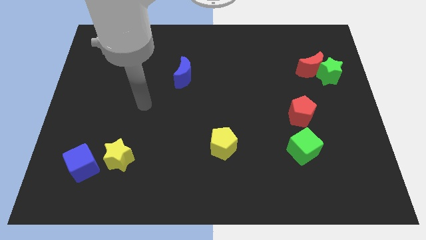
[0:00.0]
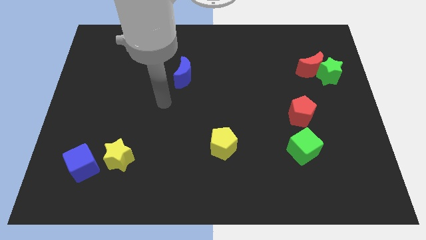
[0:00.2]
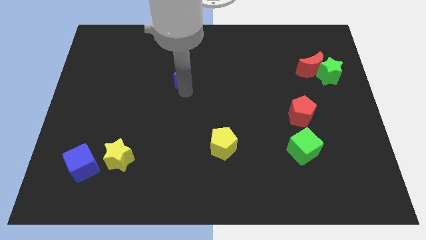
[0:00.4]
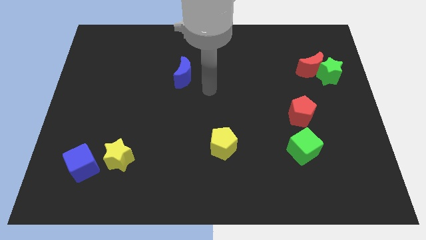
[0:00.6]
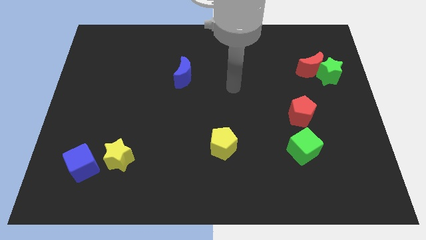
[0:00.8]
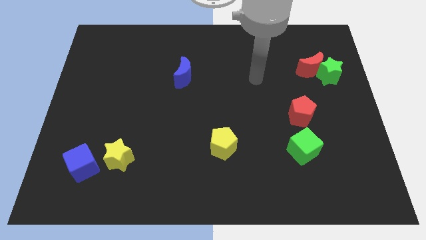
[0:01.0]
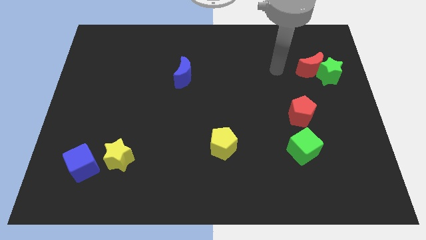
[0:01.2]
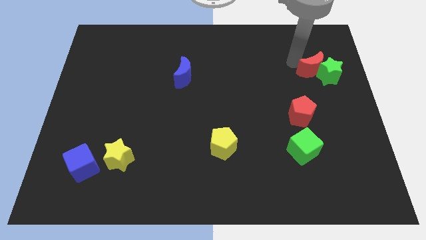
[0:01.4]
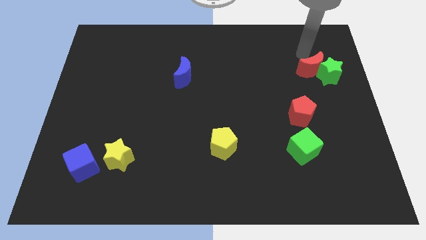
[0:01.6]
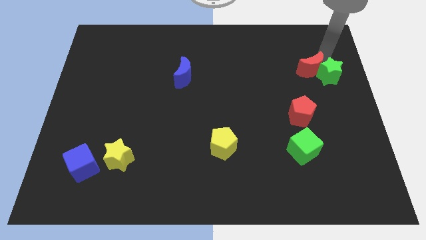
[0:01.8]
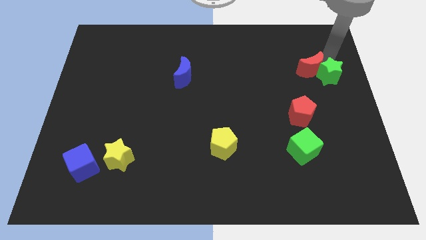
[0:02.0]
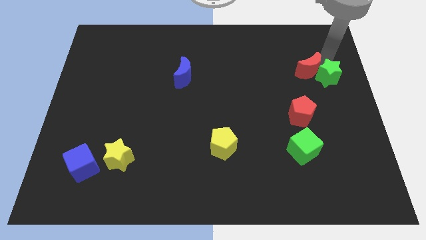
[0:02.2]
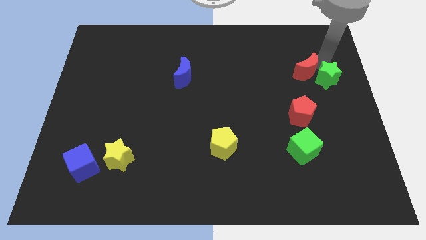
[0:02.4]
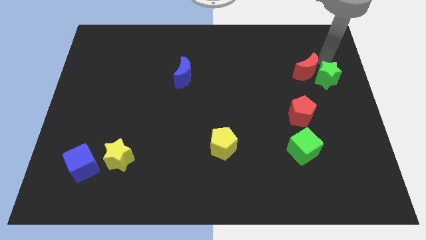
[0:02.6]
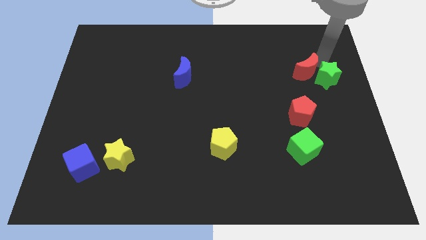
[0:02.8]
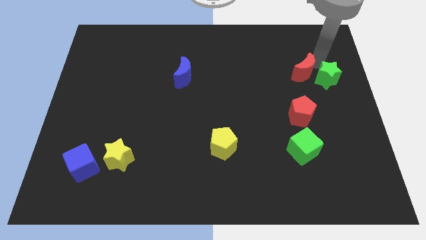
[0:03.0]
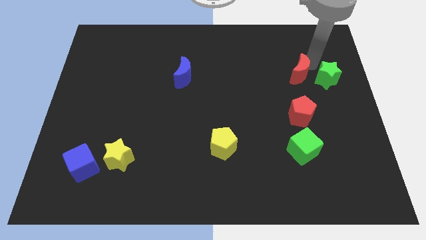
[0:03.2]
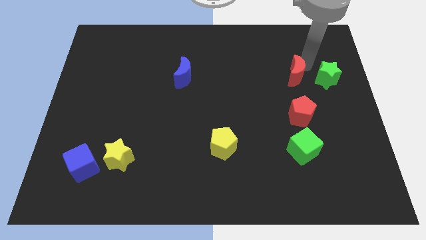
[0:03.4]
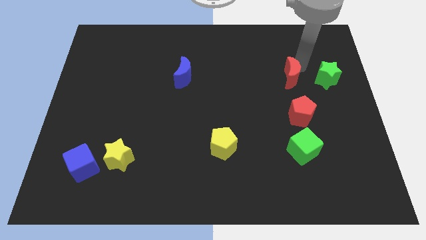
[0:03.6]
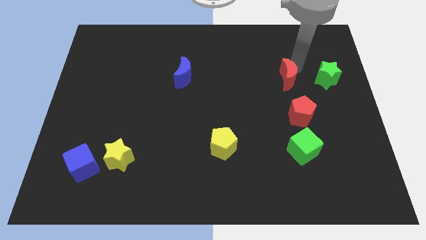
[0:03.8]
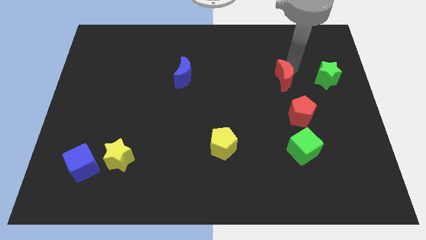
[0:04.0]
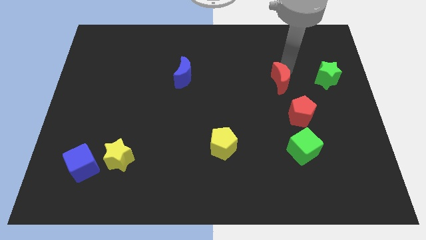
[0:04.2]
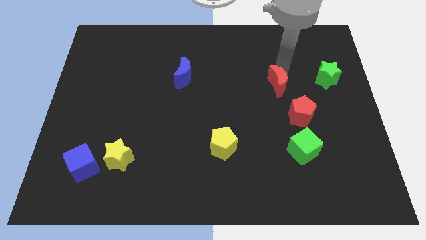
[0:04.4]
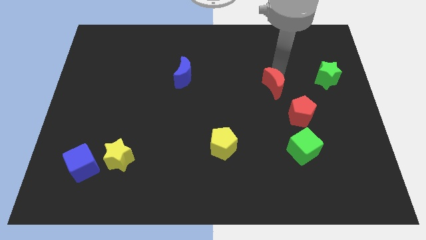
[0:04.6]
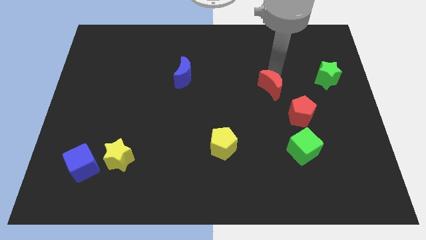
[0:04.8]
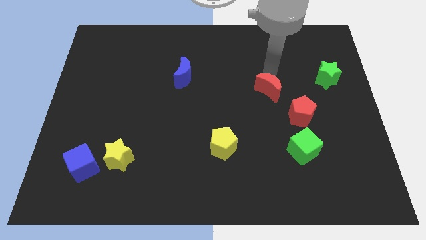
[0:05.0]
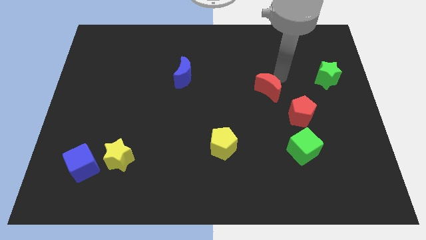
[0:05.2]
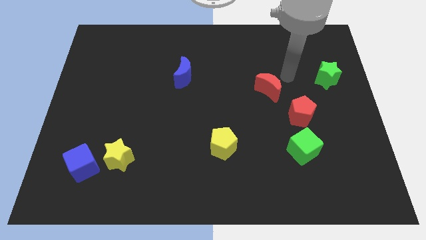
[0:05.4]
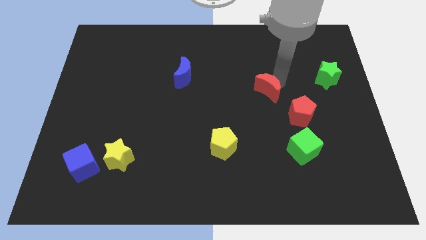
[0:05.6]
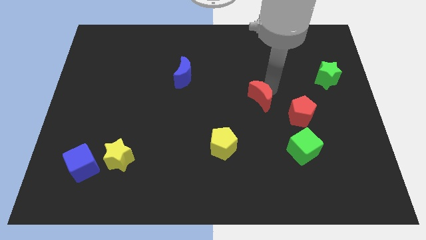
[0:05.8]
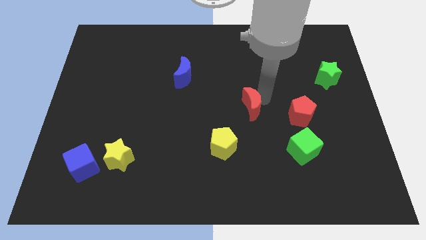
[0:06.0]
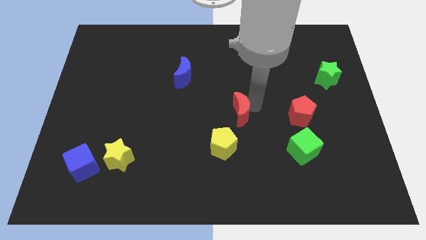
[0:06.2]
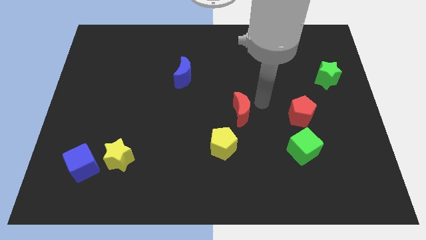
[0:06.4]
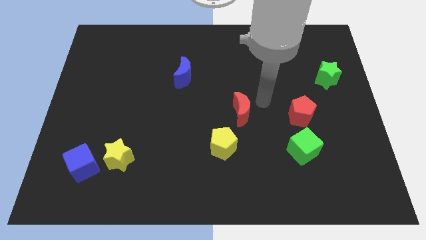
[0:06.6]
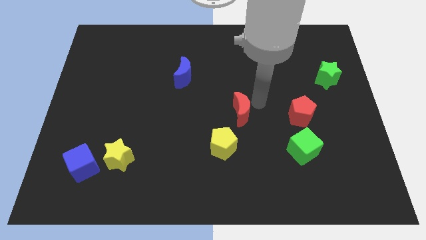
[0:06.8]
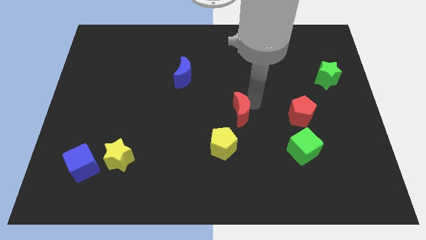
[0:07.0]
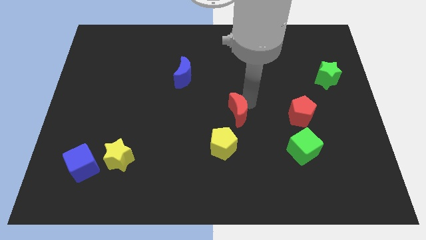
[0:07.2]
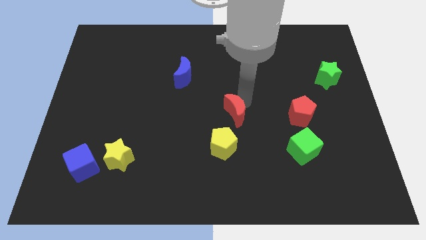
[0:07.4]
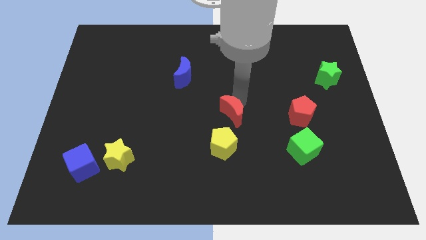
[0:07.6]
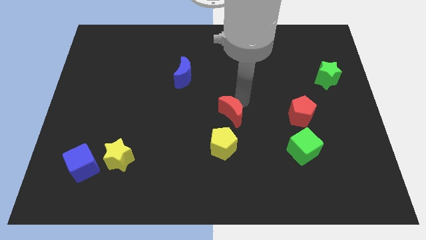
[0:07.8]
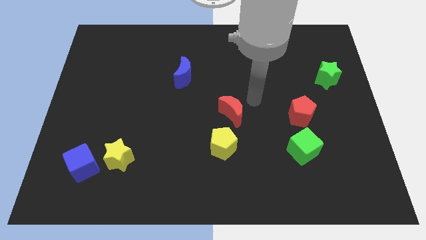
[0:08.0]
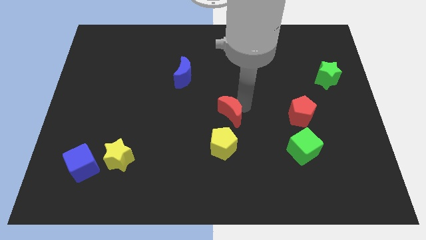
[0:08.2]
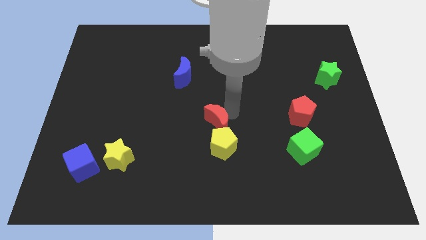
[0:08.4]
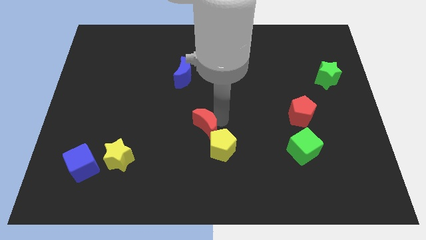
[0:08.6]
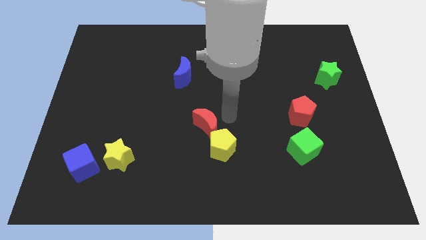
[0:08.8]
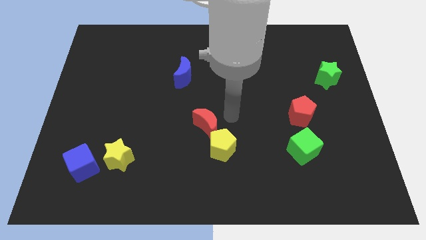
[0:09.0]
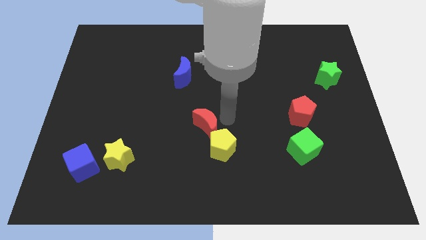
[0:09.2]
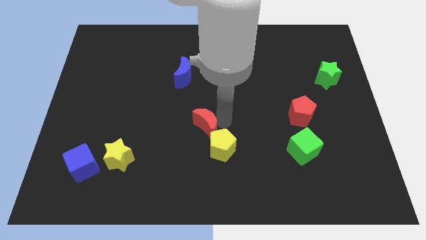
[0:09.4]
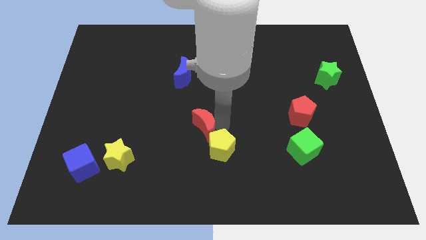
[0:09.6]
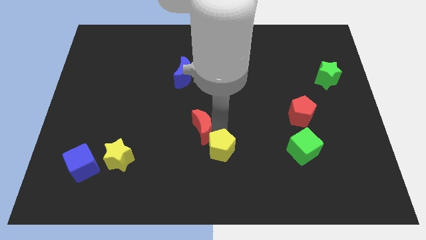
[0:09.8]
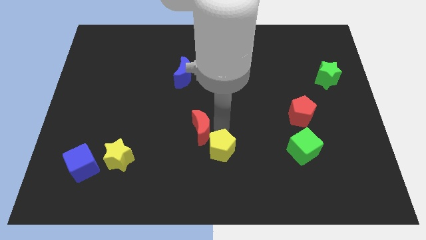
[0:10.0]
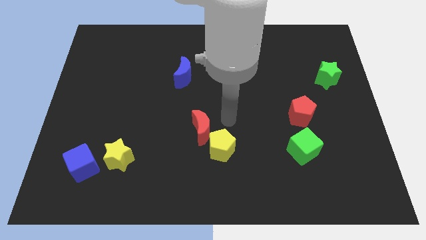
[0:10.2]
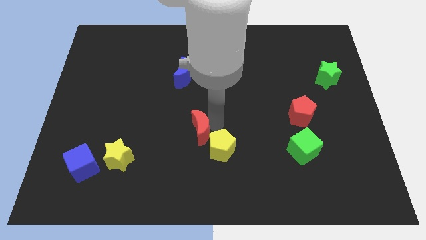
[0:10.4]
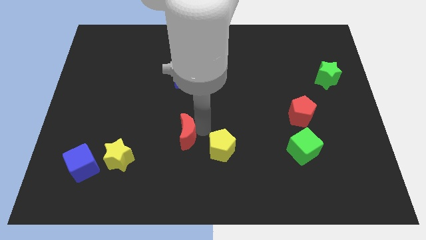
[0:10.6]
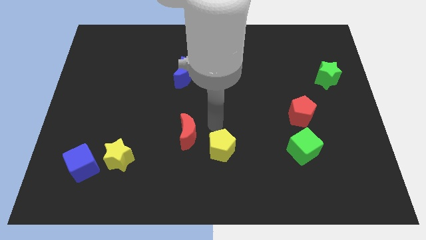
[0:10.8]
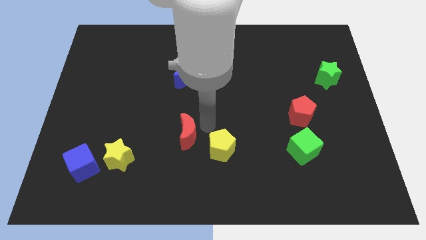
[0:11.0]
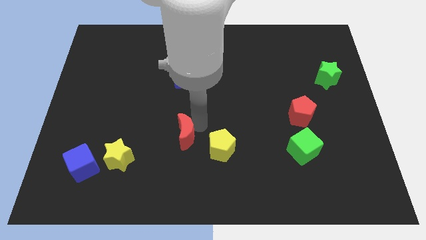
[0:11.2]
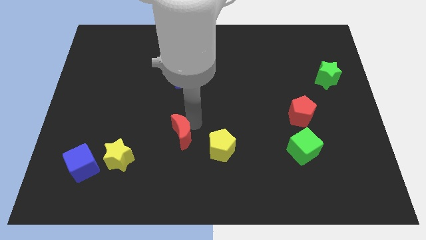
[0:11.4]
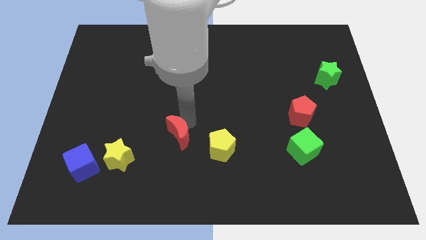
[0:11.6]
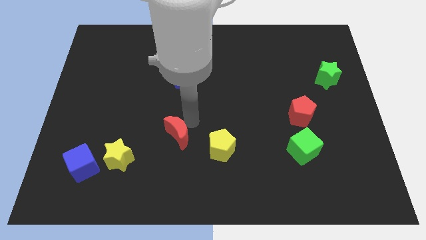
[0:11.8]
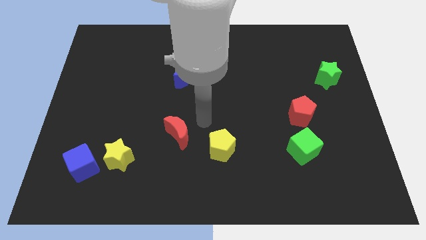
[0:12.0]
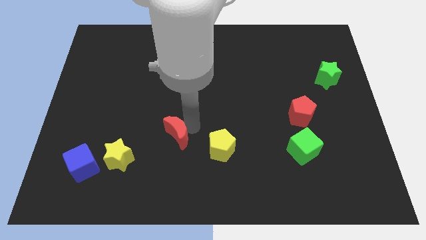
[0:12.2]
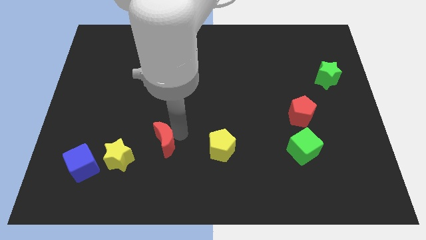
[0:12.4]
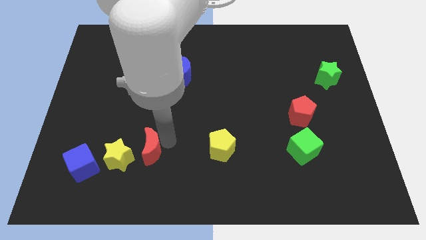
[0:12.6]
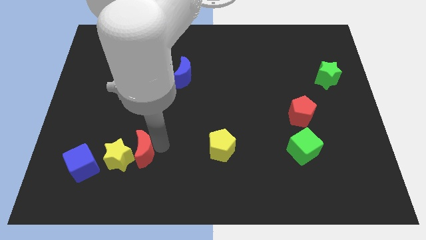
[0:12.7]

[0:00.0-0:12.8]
slide the red moon towards the yellow star

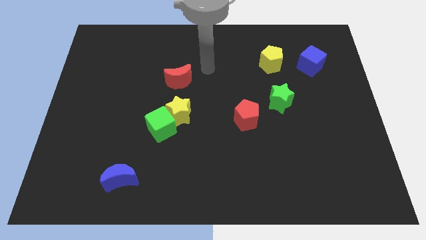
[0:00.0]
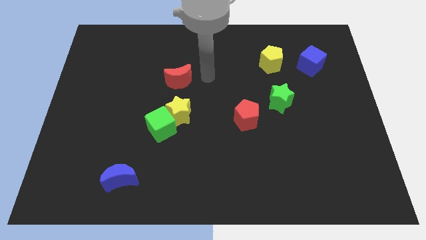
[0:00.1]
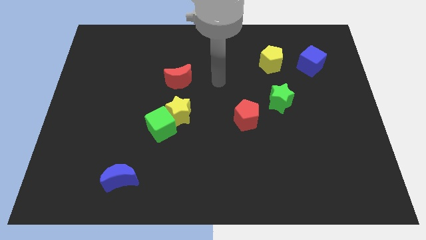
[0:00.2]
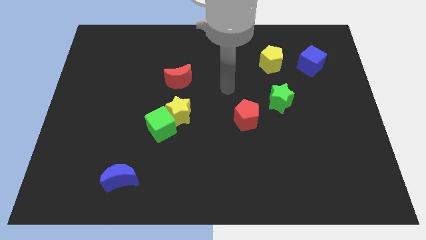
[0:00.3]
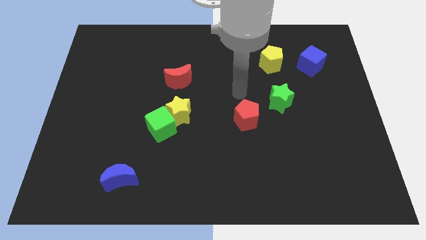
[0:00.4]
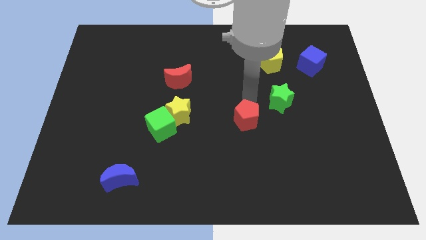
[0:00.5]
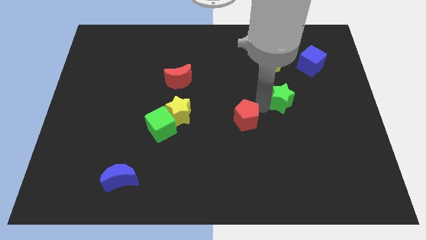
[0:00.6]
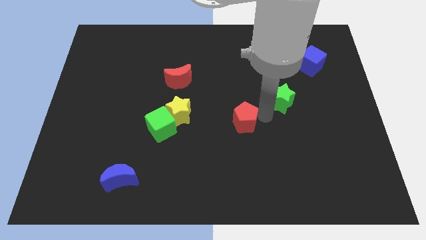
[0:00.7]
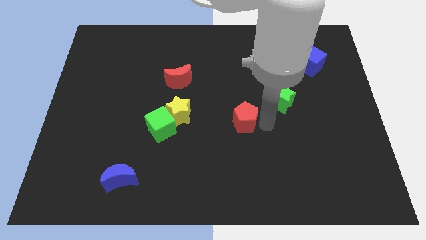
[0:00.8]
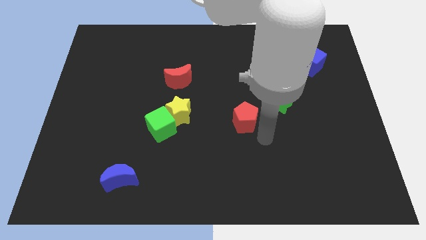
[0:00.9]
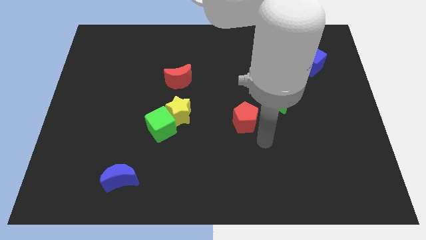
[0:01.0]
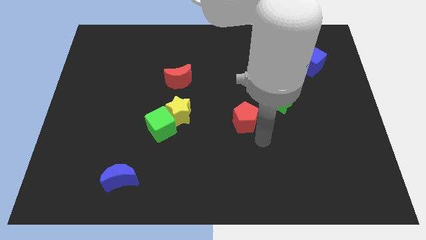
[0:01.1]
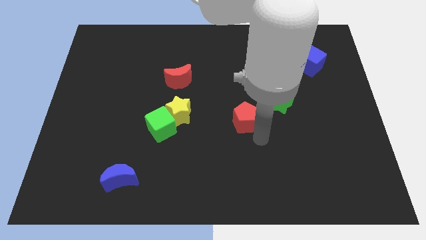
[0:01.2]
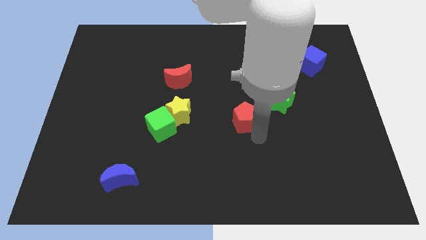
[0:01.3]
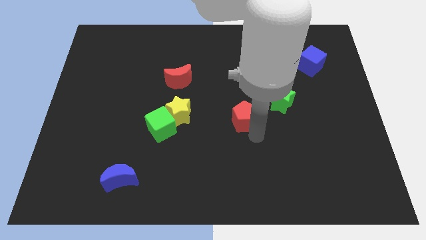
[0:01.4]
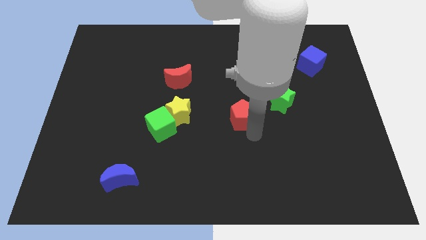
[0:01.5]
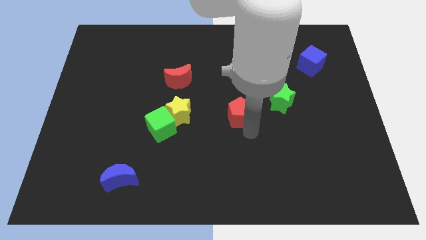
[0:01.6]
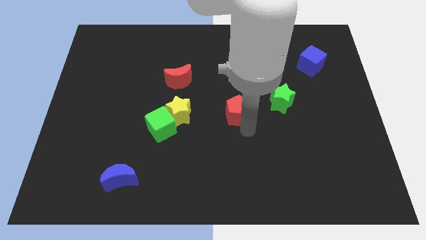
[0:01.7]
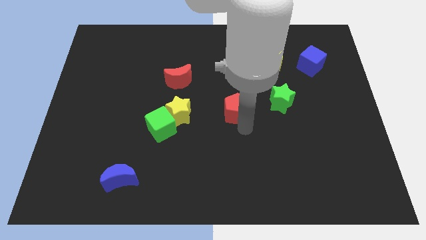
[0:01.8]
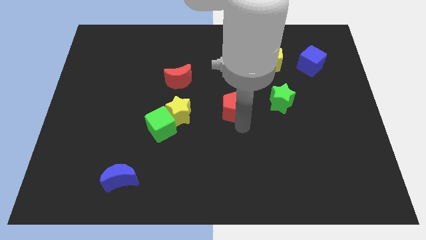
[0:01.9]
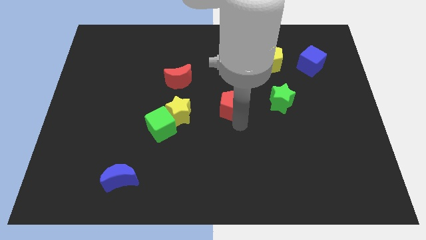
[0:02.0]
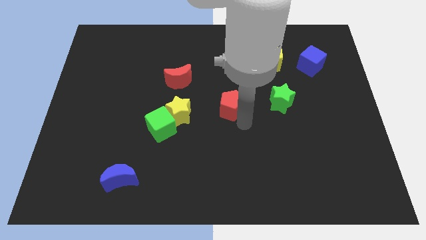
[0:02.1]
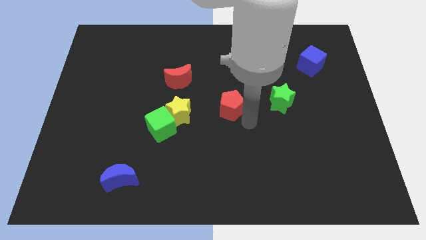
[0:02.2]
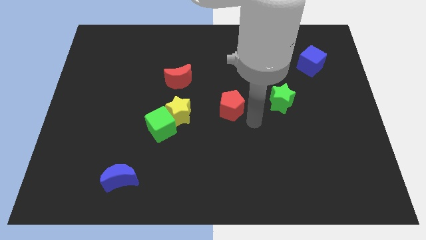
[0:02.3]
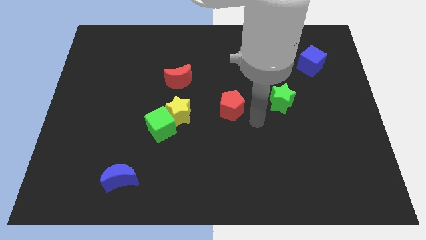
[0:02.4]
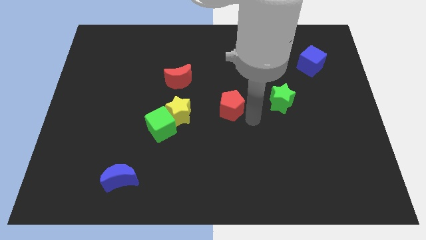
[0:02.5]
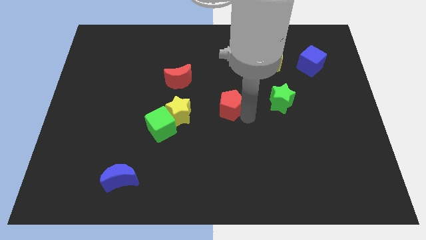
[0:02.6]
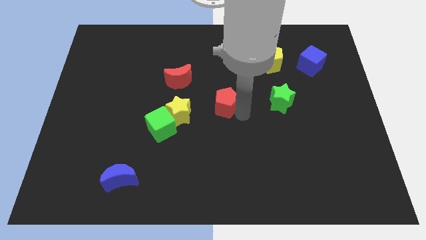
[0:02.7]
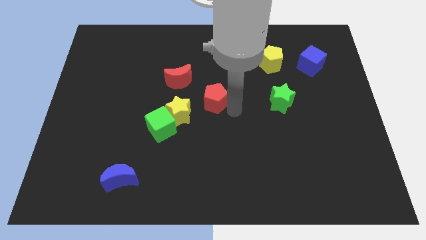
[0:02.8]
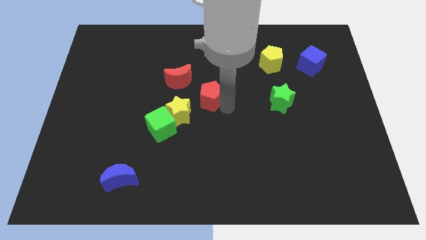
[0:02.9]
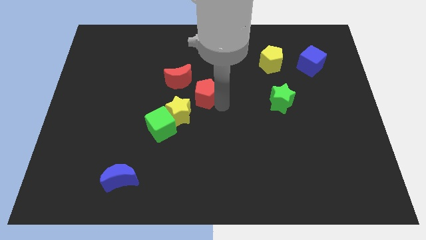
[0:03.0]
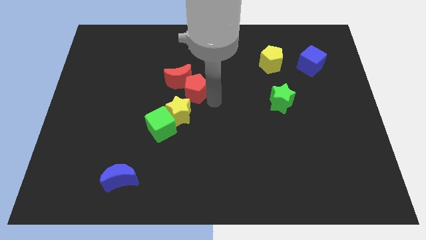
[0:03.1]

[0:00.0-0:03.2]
slide the red pentagon to the red moon
